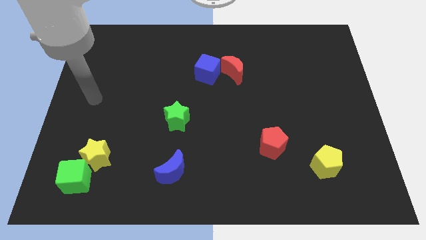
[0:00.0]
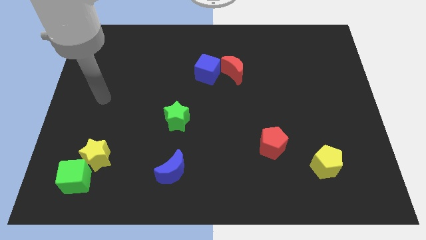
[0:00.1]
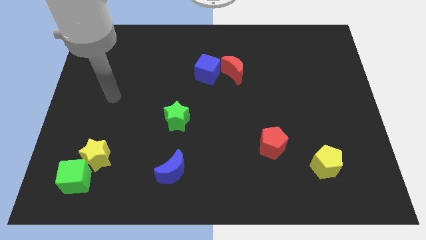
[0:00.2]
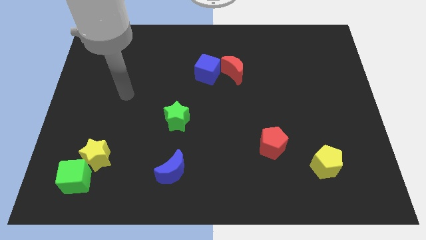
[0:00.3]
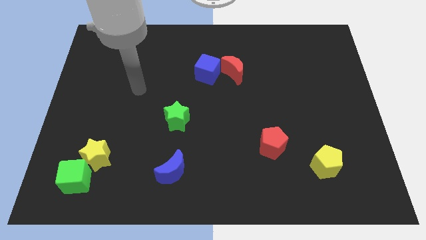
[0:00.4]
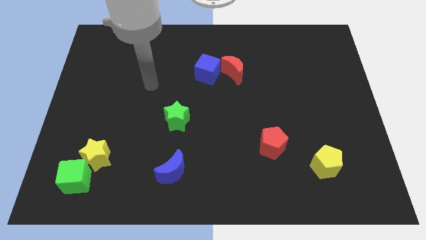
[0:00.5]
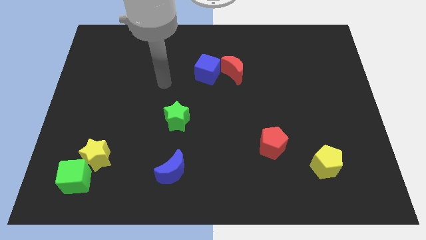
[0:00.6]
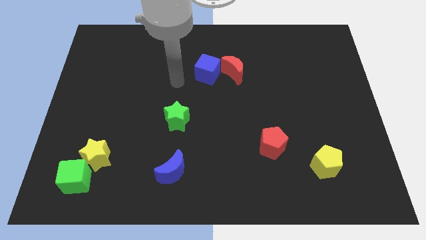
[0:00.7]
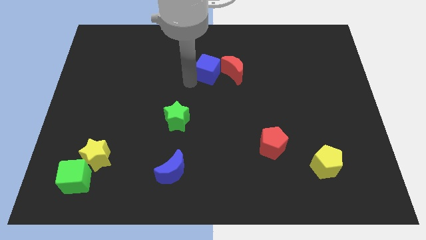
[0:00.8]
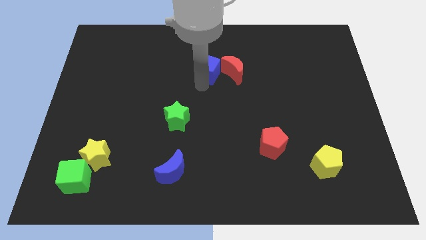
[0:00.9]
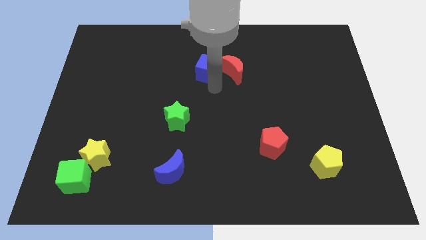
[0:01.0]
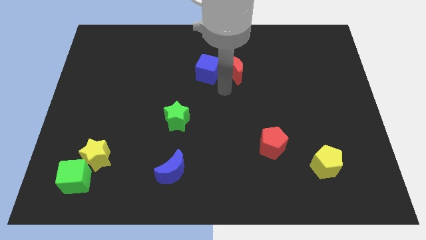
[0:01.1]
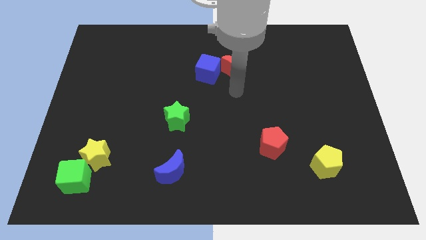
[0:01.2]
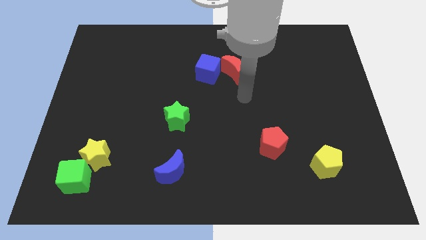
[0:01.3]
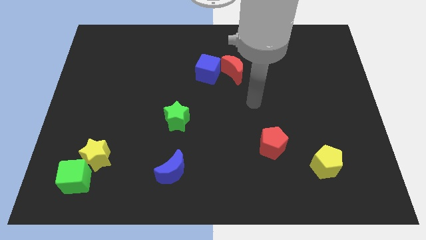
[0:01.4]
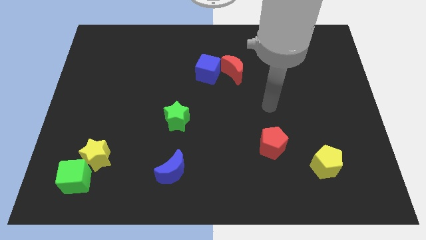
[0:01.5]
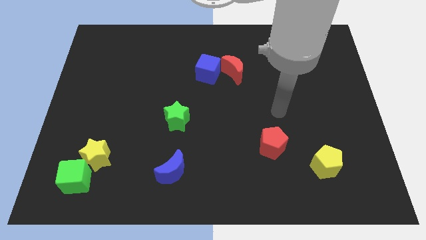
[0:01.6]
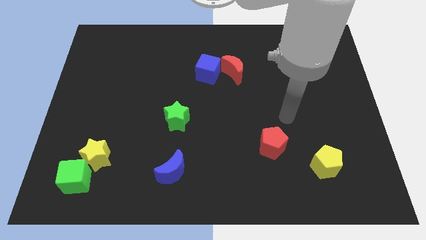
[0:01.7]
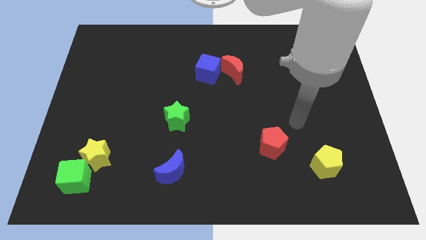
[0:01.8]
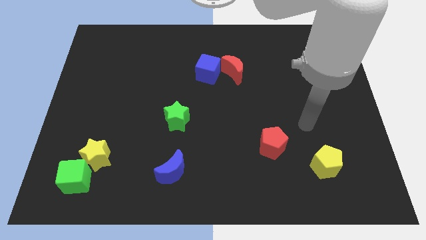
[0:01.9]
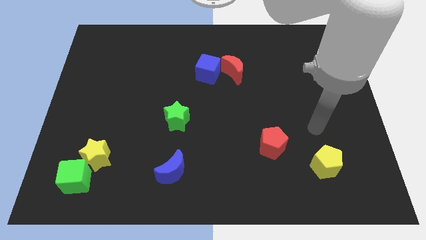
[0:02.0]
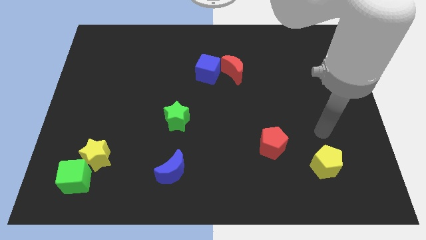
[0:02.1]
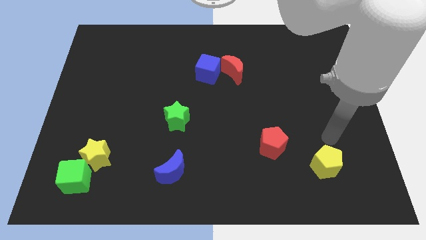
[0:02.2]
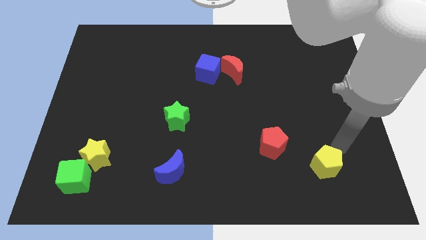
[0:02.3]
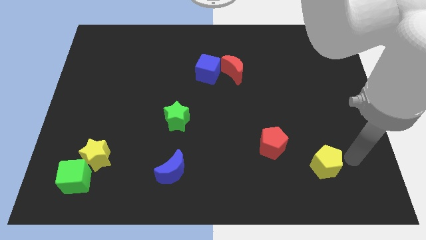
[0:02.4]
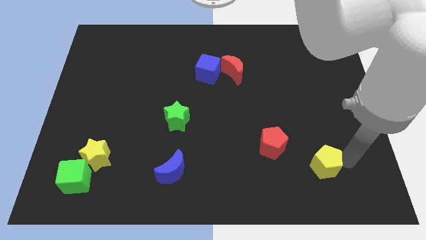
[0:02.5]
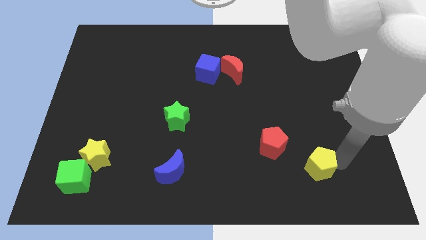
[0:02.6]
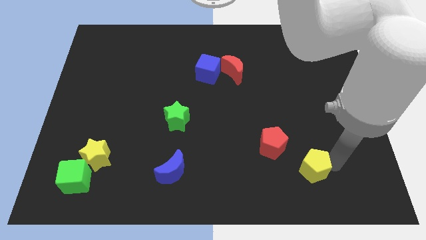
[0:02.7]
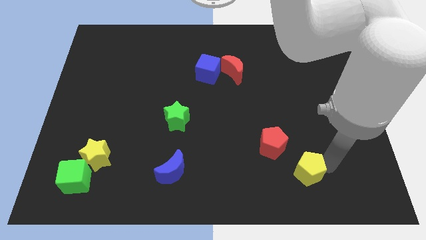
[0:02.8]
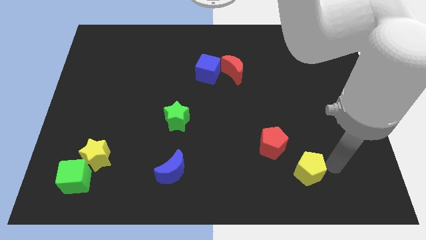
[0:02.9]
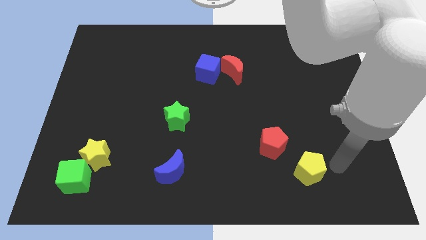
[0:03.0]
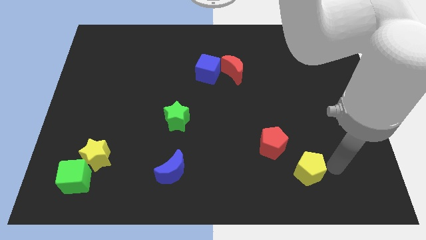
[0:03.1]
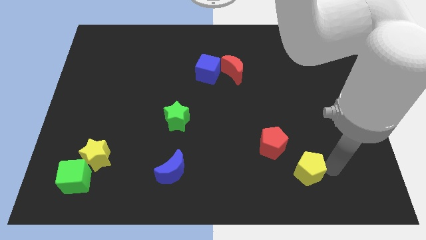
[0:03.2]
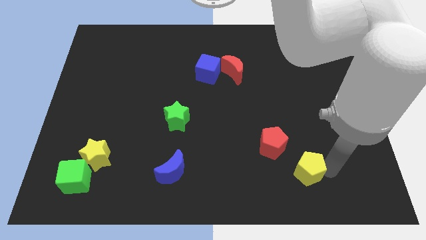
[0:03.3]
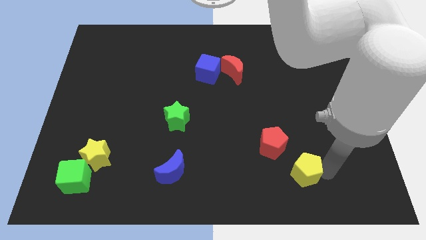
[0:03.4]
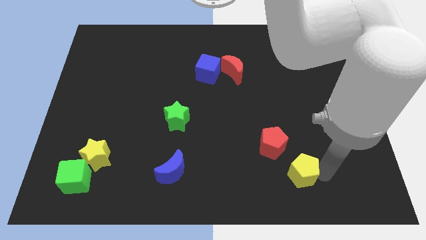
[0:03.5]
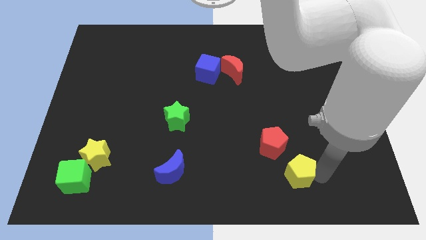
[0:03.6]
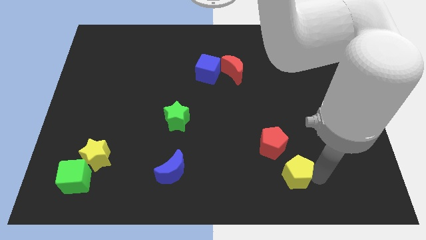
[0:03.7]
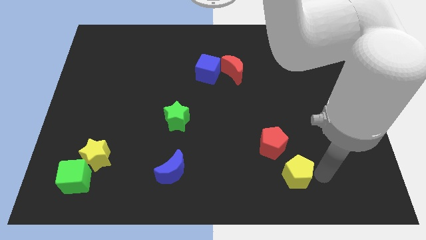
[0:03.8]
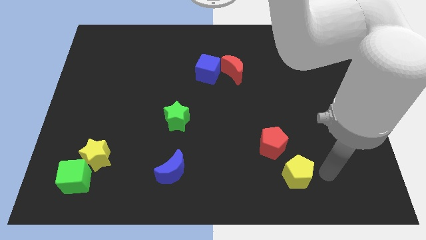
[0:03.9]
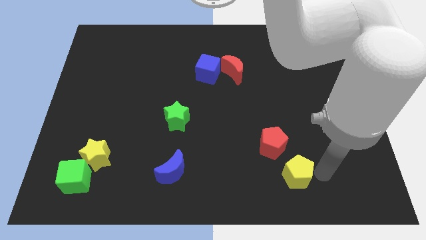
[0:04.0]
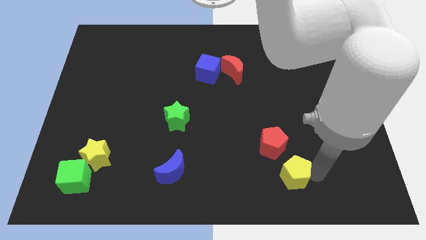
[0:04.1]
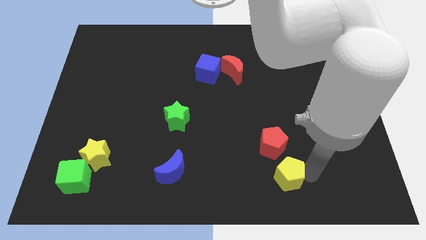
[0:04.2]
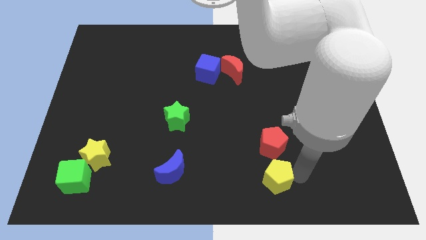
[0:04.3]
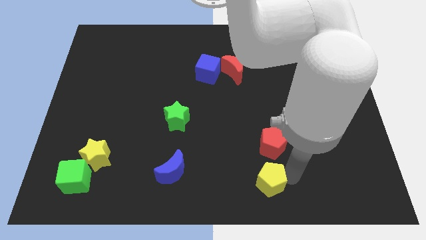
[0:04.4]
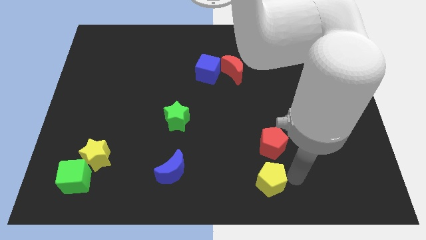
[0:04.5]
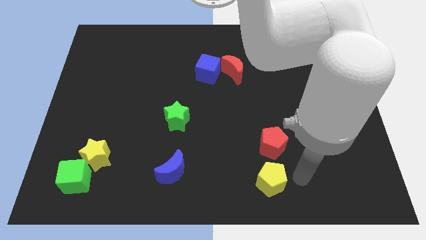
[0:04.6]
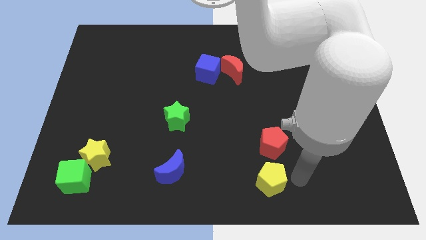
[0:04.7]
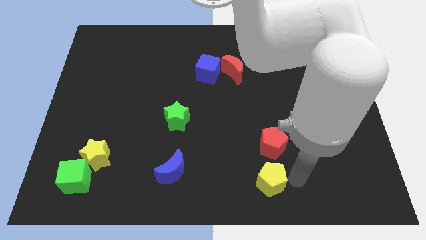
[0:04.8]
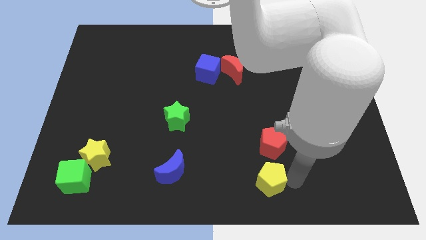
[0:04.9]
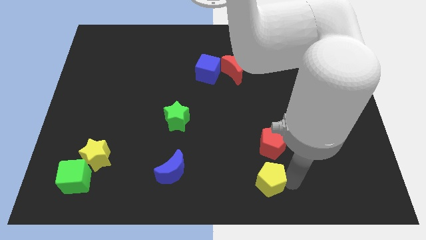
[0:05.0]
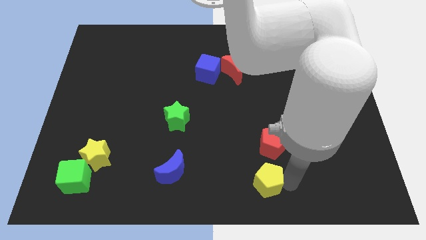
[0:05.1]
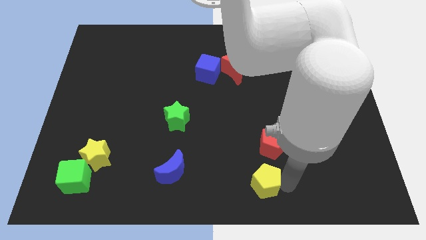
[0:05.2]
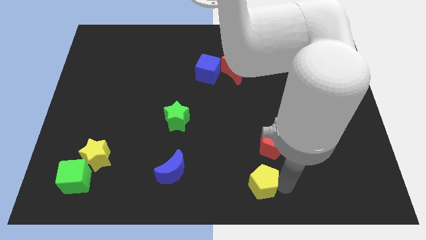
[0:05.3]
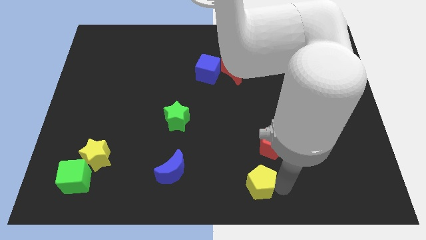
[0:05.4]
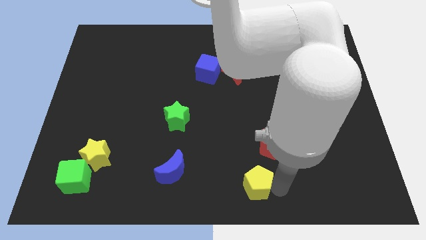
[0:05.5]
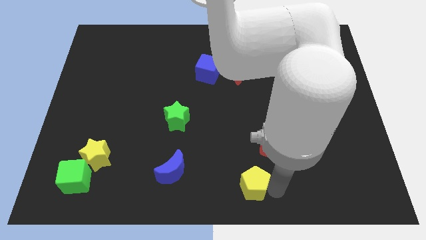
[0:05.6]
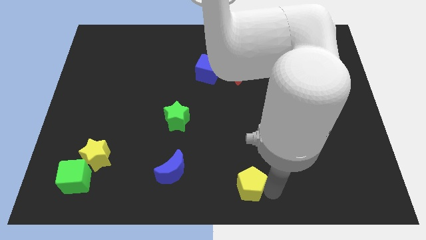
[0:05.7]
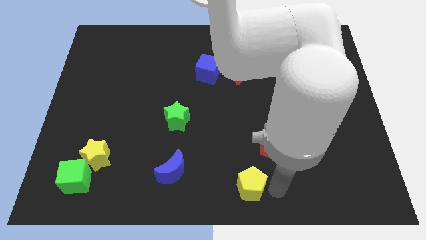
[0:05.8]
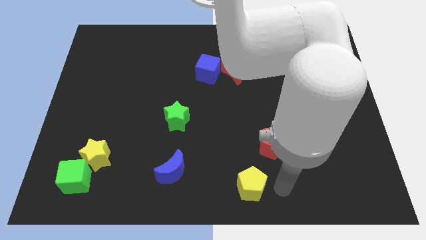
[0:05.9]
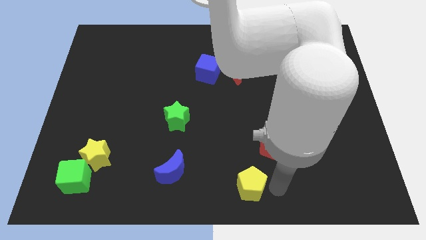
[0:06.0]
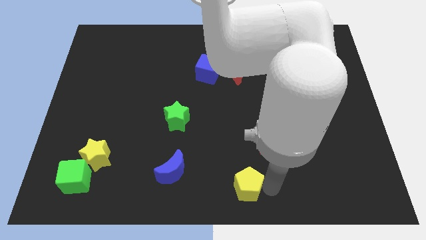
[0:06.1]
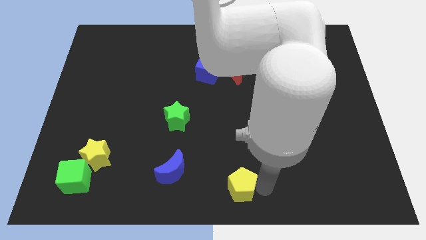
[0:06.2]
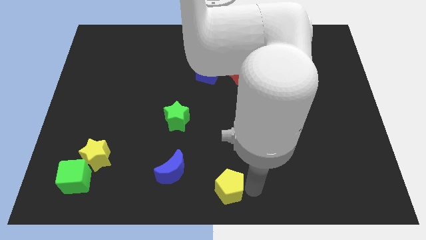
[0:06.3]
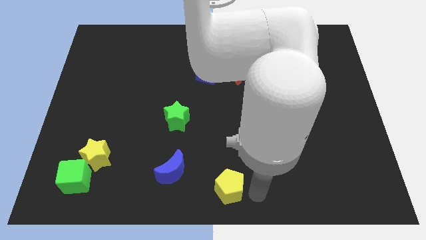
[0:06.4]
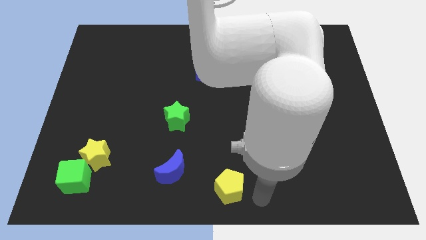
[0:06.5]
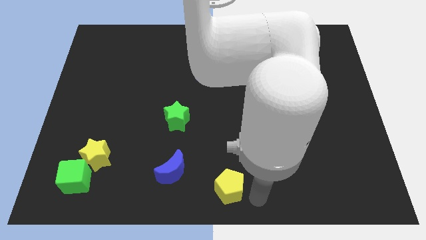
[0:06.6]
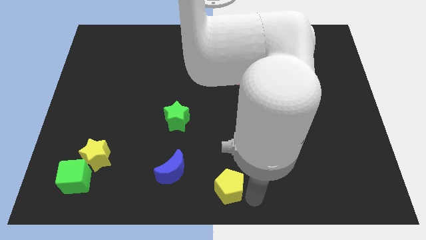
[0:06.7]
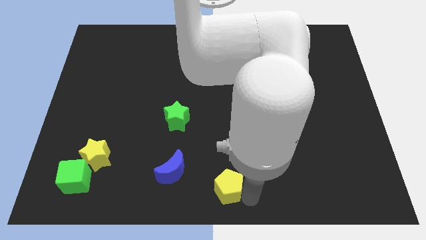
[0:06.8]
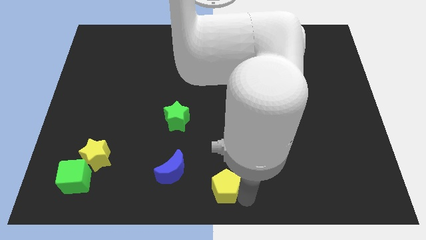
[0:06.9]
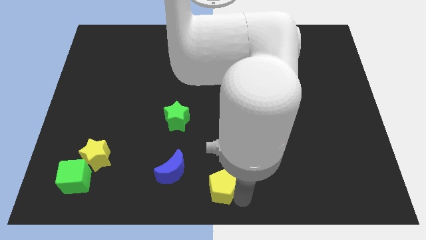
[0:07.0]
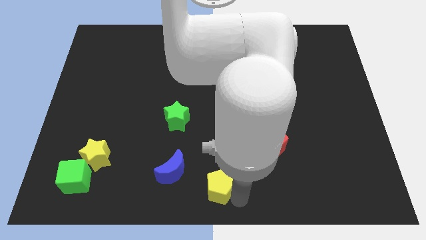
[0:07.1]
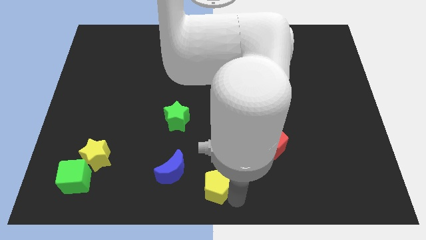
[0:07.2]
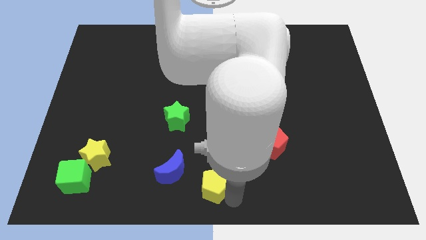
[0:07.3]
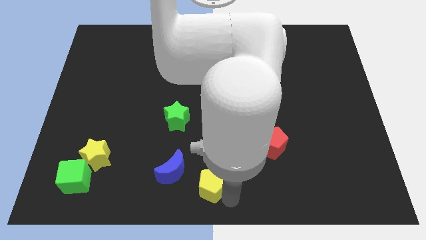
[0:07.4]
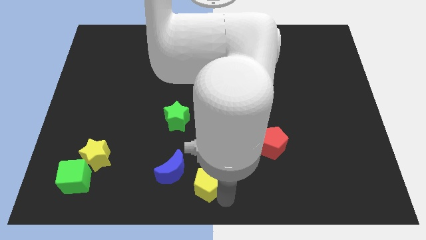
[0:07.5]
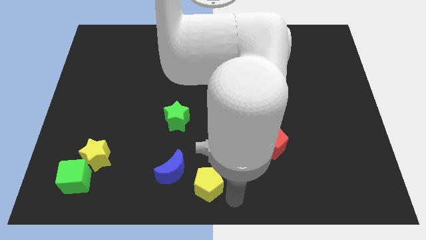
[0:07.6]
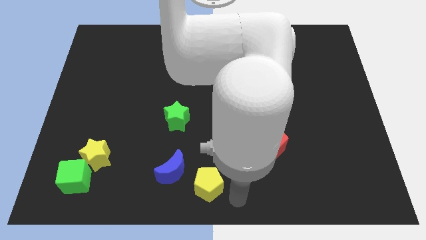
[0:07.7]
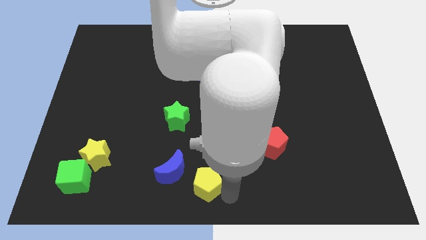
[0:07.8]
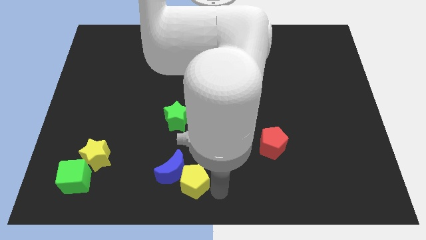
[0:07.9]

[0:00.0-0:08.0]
put the yellow pentagon to the blue moon
